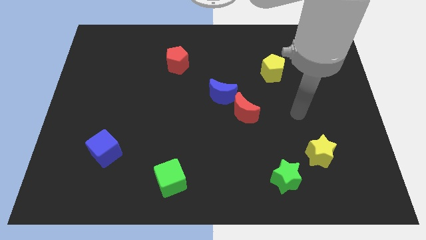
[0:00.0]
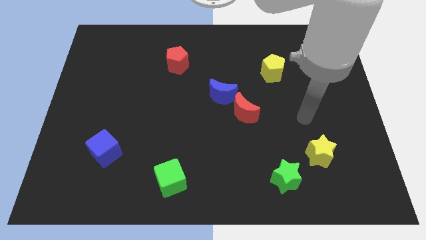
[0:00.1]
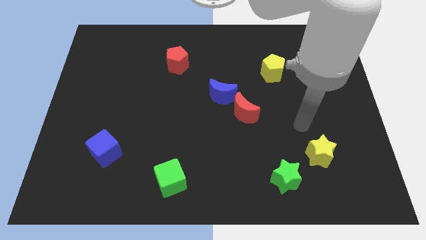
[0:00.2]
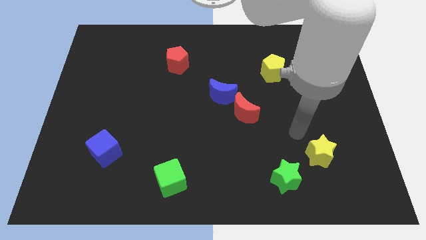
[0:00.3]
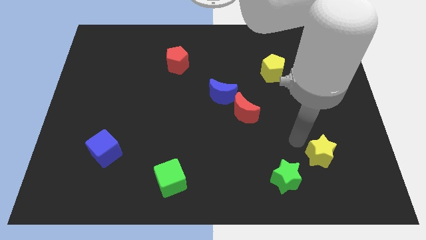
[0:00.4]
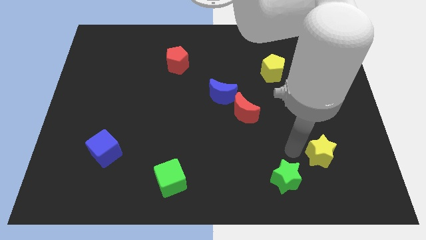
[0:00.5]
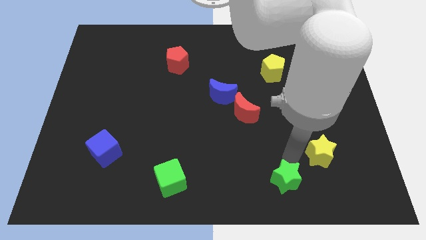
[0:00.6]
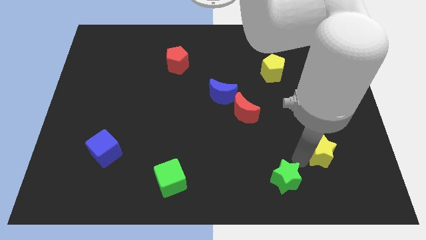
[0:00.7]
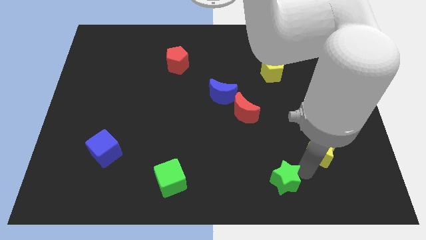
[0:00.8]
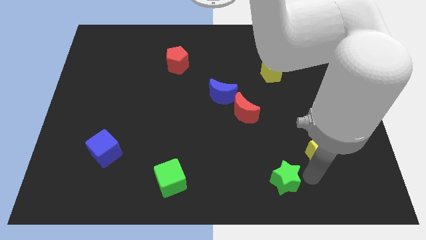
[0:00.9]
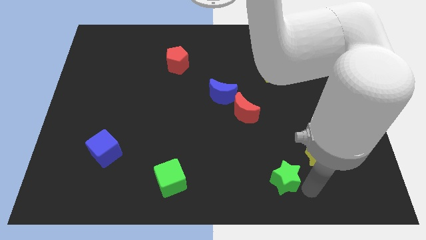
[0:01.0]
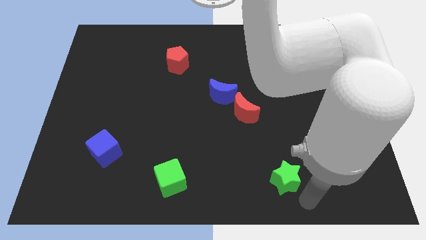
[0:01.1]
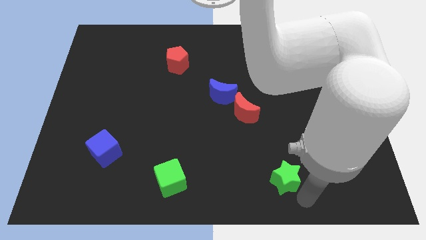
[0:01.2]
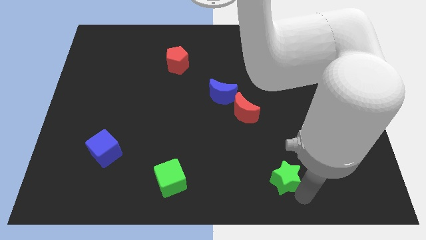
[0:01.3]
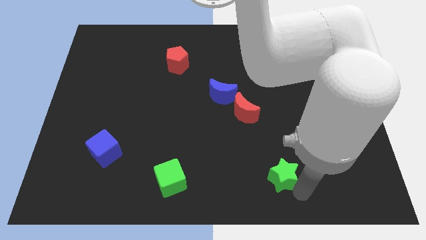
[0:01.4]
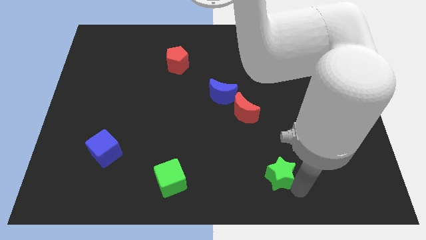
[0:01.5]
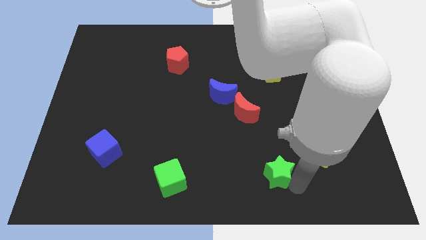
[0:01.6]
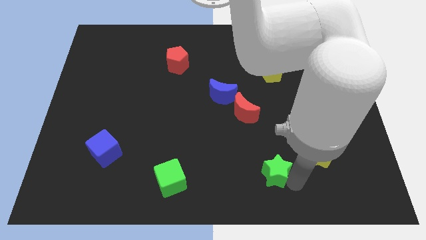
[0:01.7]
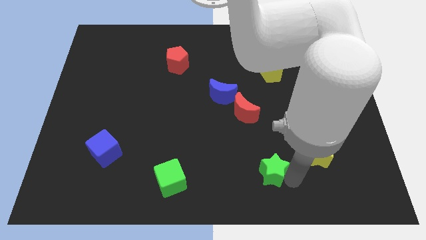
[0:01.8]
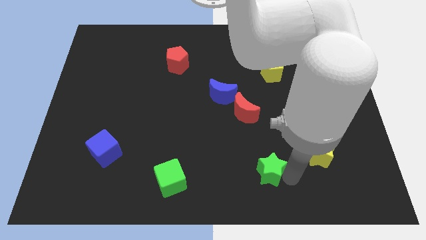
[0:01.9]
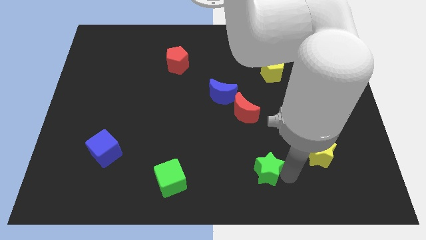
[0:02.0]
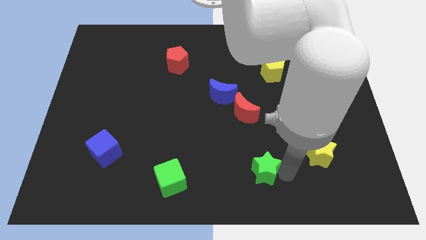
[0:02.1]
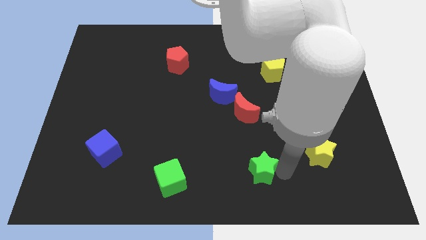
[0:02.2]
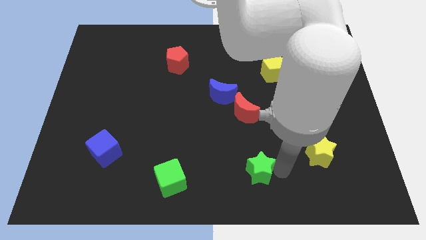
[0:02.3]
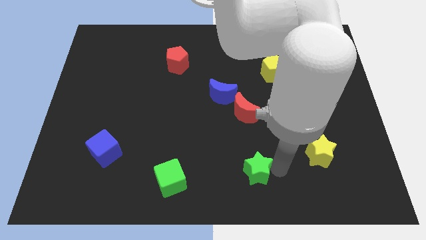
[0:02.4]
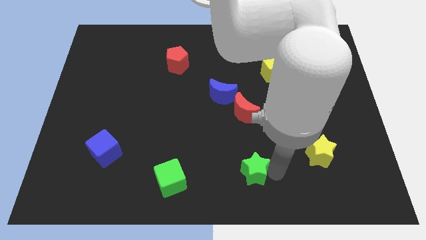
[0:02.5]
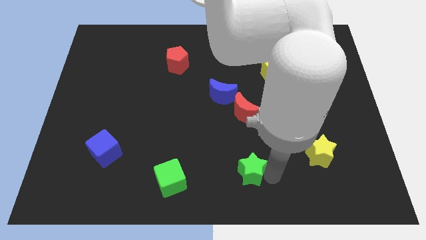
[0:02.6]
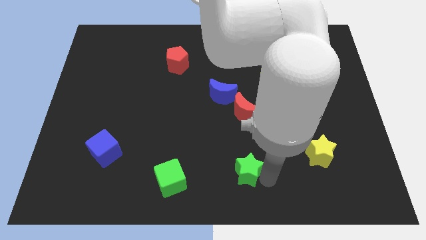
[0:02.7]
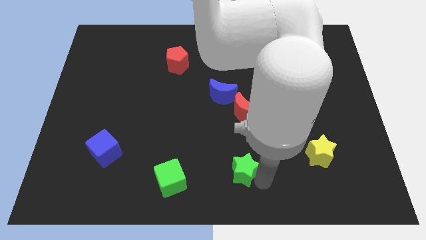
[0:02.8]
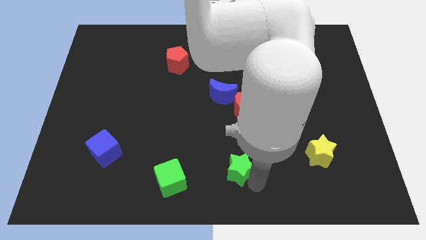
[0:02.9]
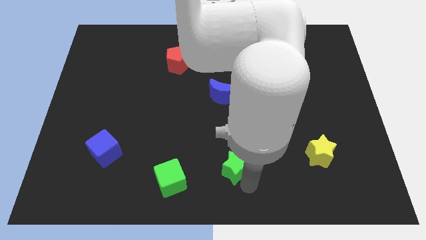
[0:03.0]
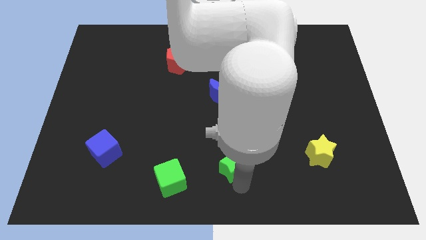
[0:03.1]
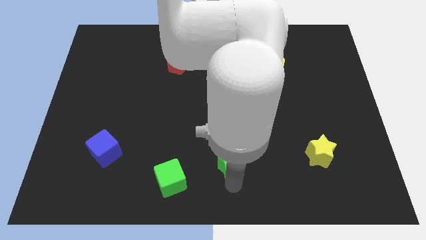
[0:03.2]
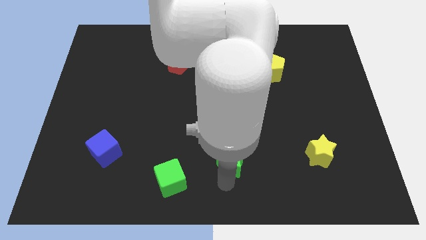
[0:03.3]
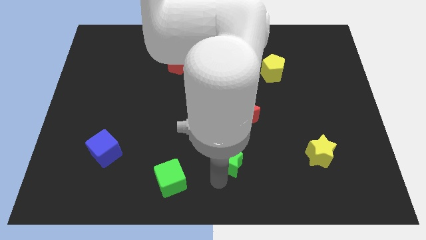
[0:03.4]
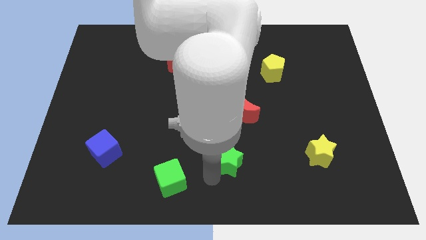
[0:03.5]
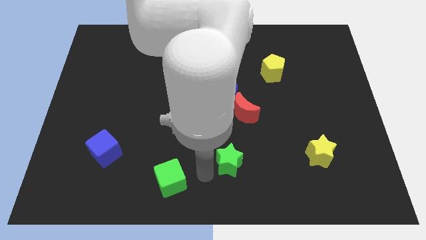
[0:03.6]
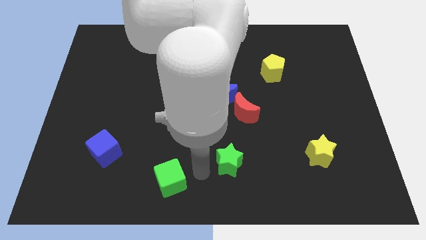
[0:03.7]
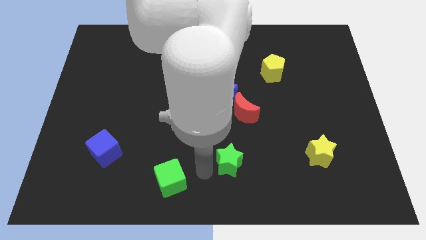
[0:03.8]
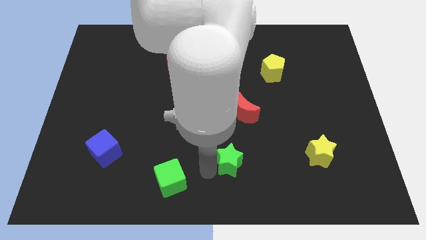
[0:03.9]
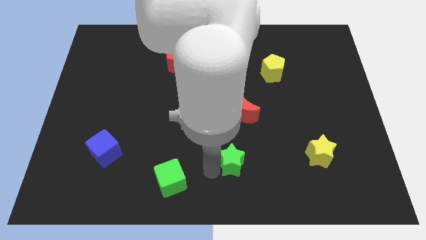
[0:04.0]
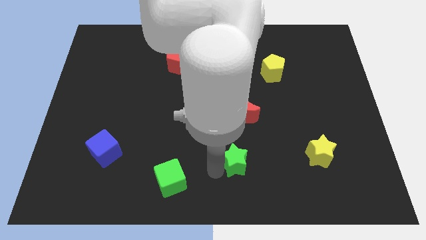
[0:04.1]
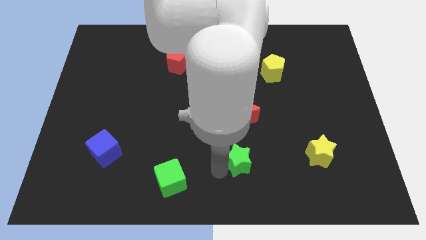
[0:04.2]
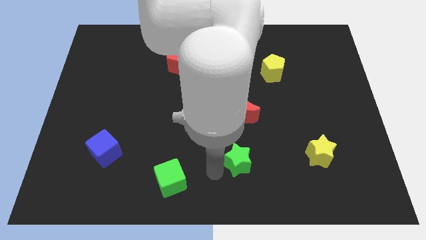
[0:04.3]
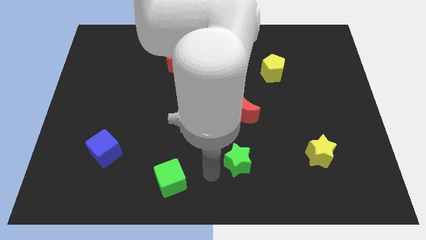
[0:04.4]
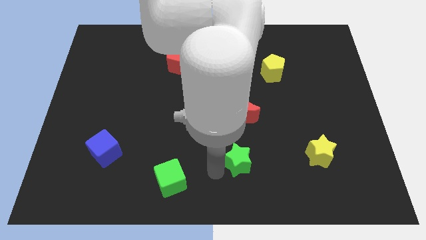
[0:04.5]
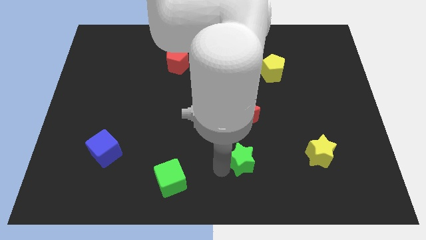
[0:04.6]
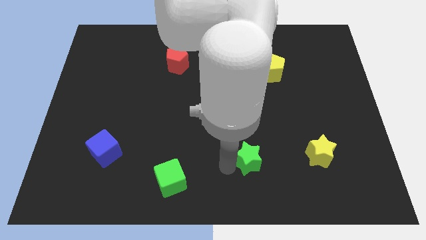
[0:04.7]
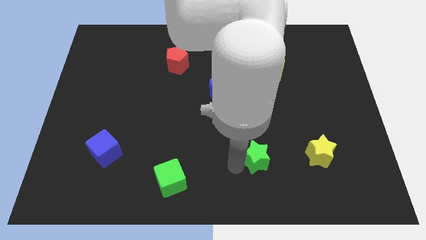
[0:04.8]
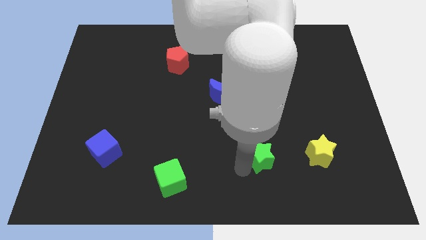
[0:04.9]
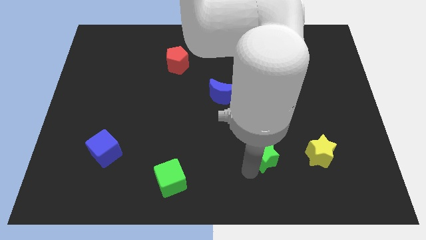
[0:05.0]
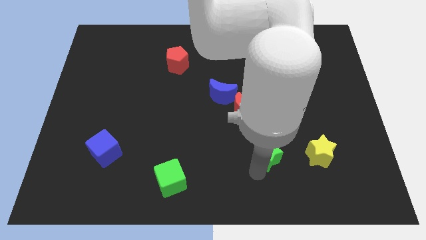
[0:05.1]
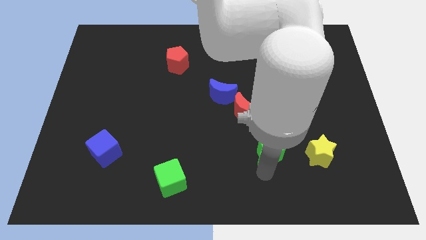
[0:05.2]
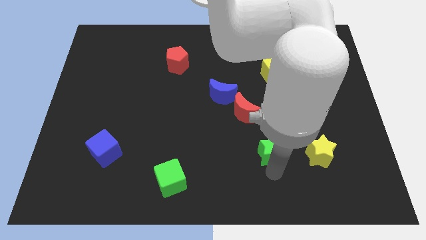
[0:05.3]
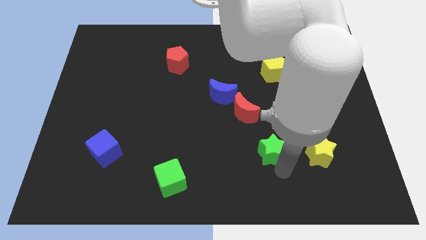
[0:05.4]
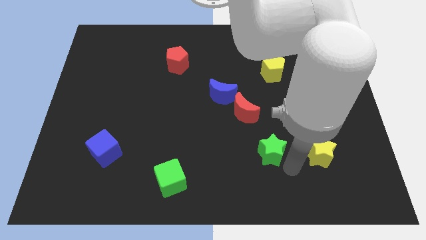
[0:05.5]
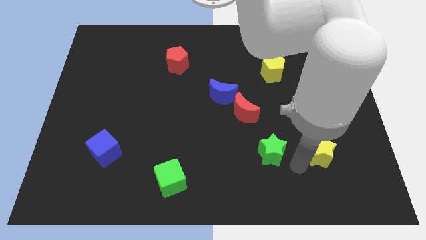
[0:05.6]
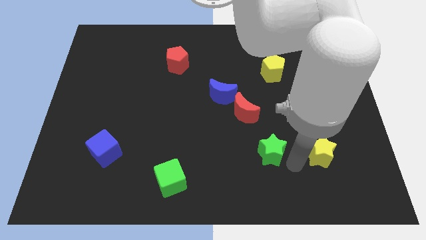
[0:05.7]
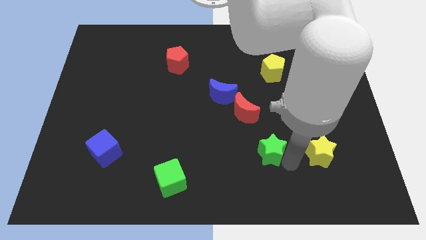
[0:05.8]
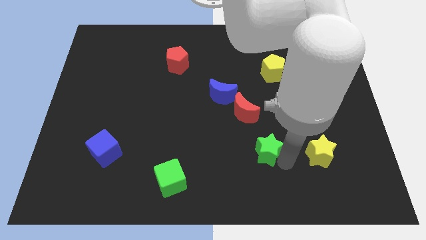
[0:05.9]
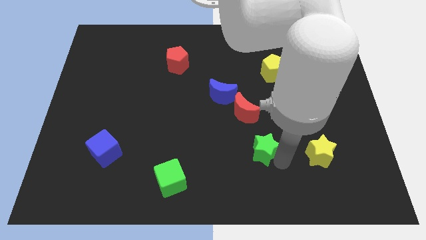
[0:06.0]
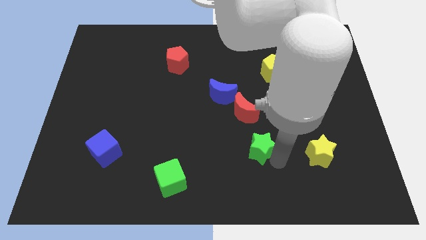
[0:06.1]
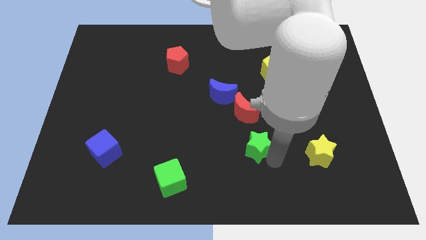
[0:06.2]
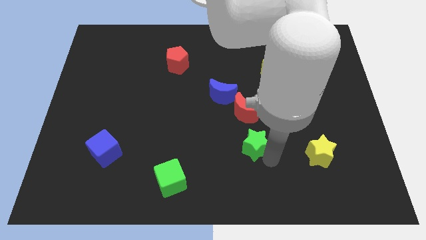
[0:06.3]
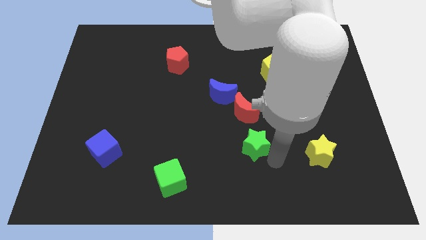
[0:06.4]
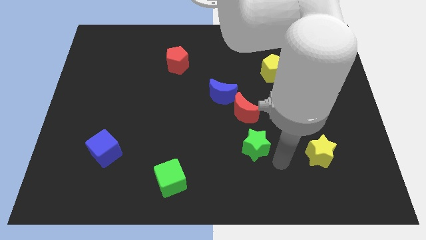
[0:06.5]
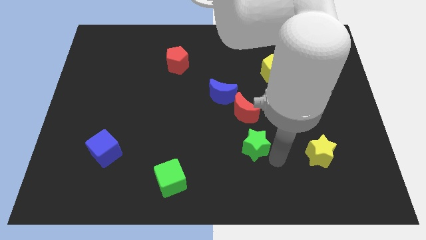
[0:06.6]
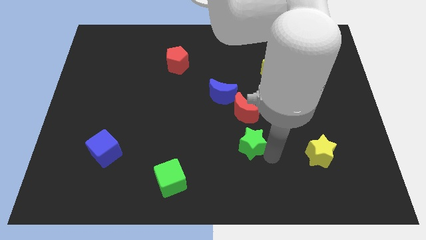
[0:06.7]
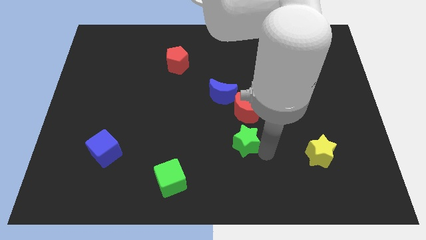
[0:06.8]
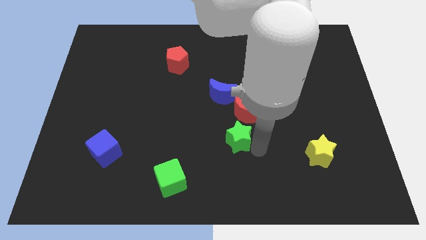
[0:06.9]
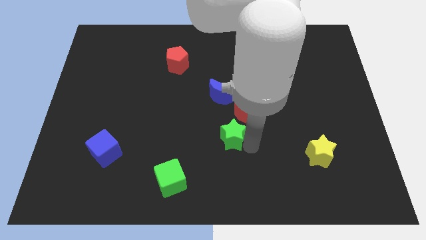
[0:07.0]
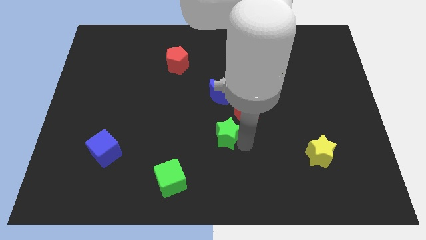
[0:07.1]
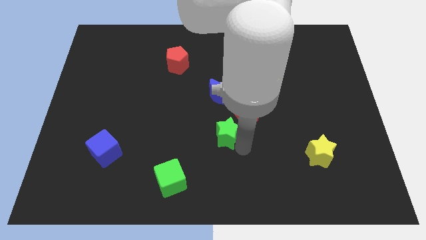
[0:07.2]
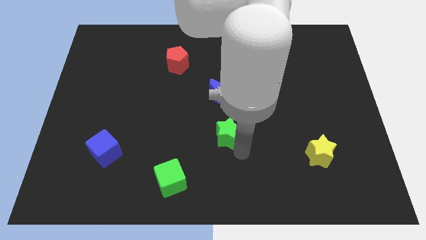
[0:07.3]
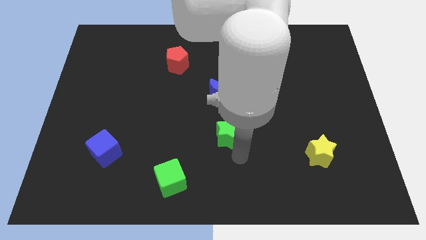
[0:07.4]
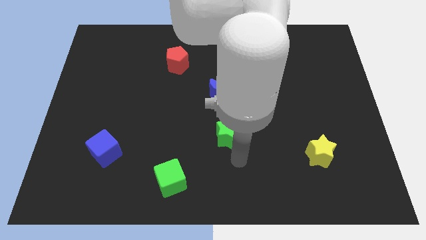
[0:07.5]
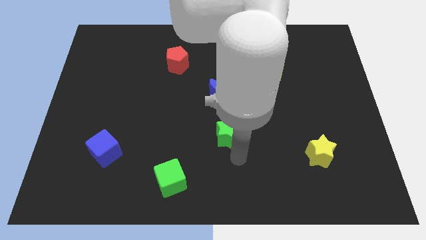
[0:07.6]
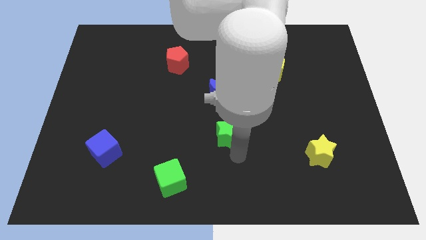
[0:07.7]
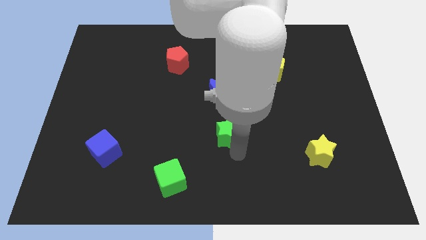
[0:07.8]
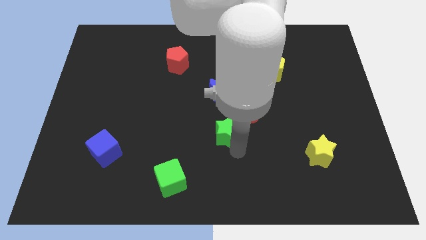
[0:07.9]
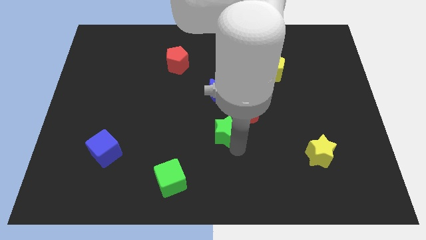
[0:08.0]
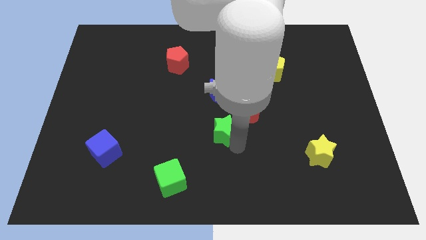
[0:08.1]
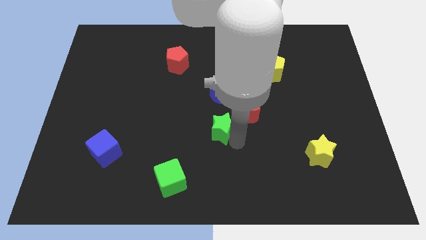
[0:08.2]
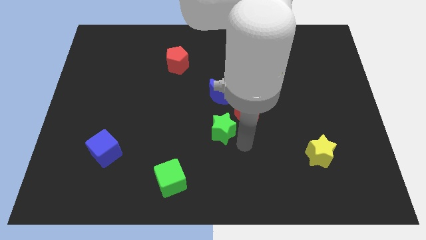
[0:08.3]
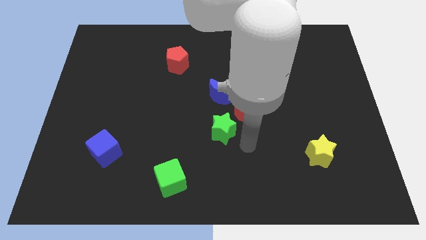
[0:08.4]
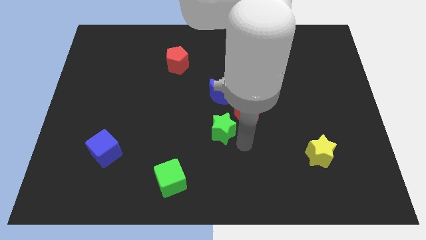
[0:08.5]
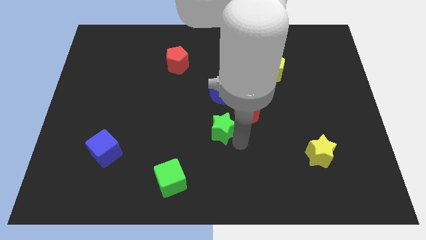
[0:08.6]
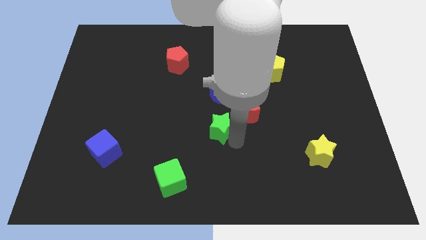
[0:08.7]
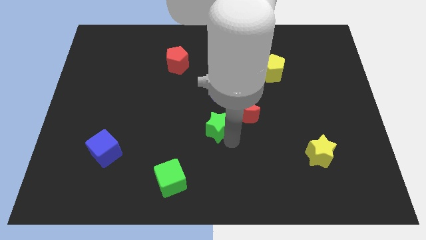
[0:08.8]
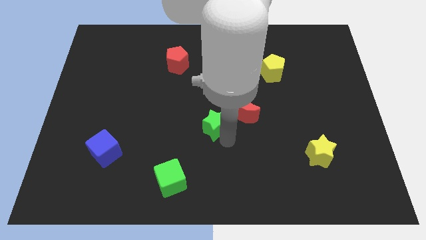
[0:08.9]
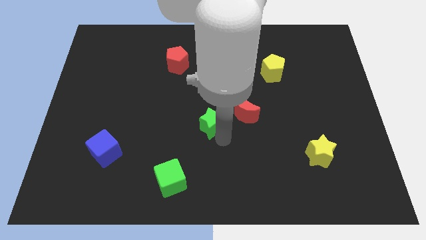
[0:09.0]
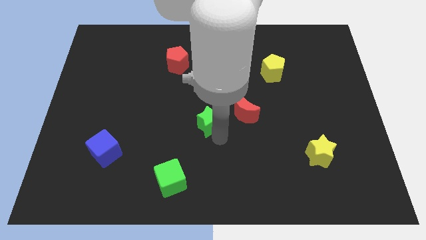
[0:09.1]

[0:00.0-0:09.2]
slide the green star up and then to the left
